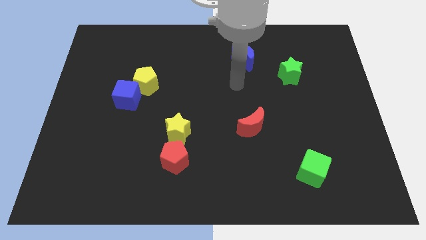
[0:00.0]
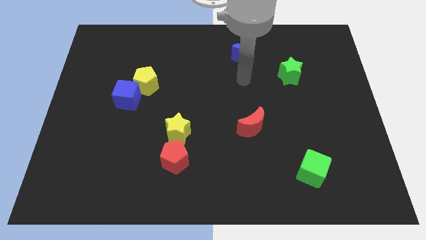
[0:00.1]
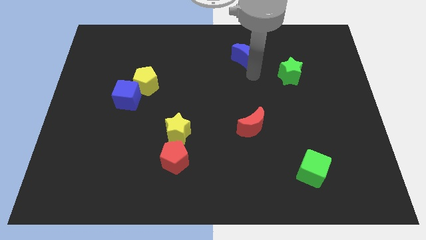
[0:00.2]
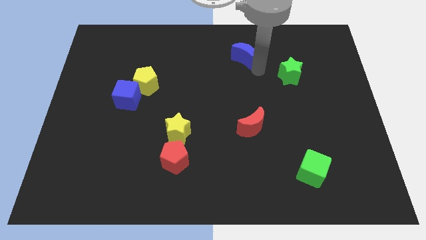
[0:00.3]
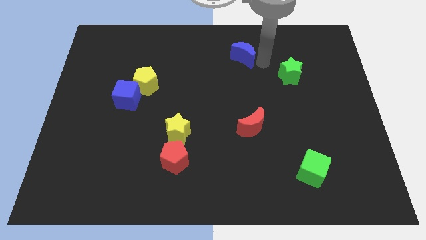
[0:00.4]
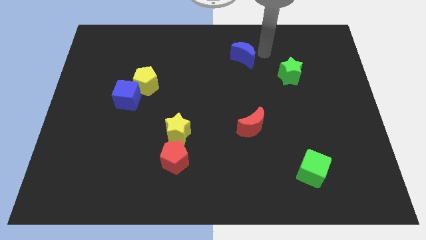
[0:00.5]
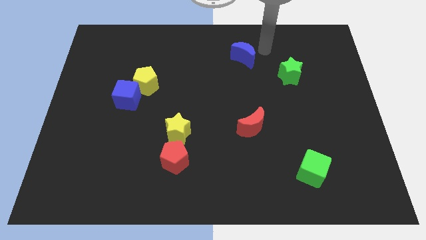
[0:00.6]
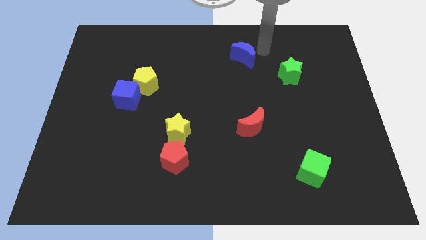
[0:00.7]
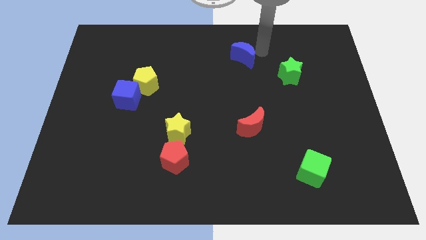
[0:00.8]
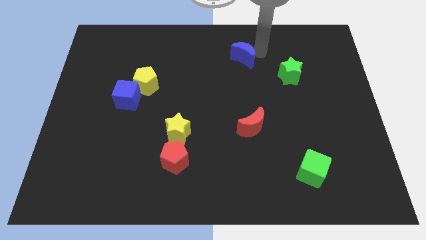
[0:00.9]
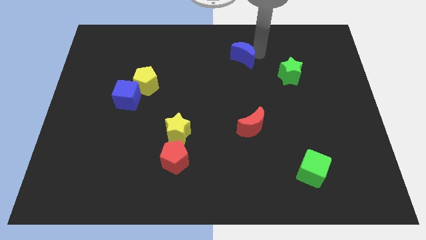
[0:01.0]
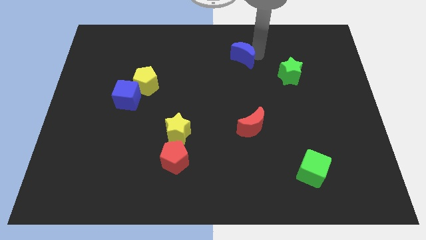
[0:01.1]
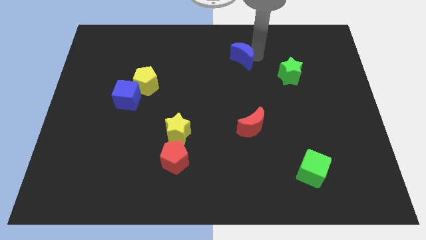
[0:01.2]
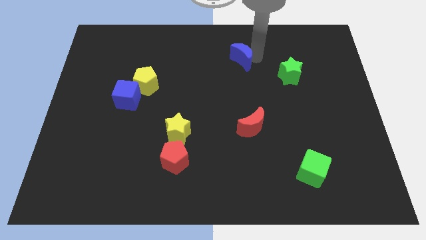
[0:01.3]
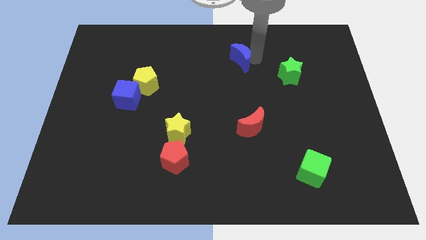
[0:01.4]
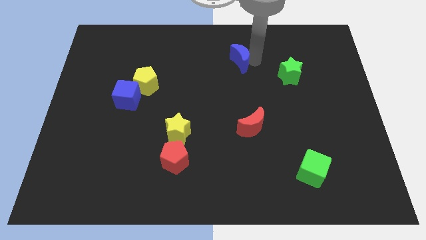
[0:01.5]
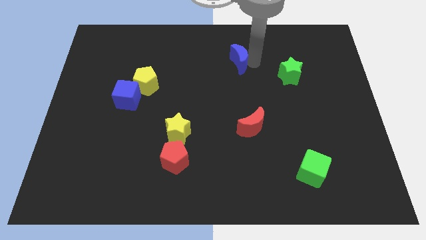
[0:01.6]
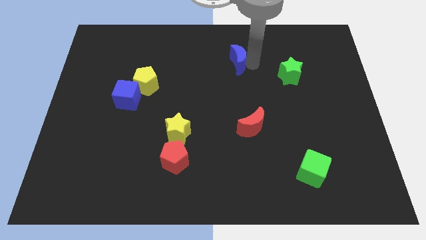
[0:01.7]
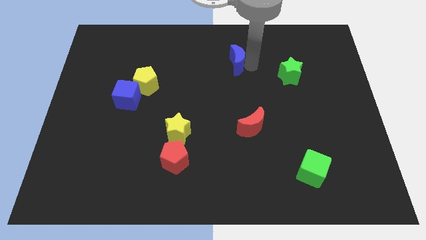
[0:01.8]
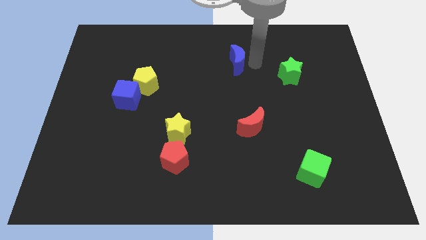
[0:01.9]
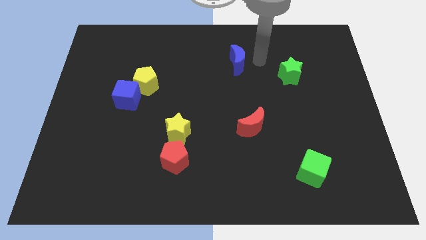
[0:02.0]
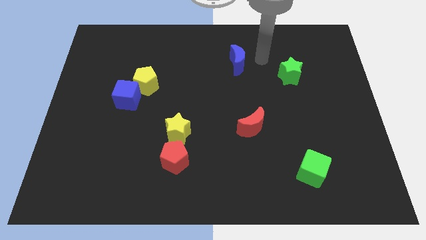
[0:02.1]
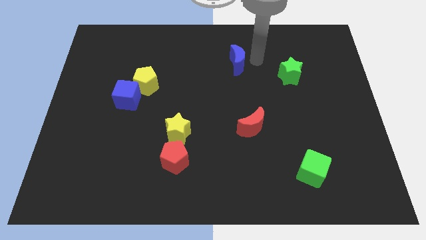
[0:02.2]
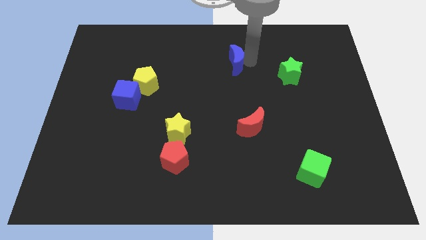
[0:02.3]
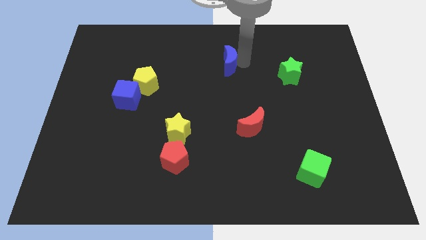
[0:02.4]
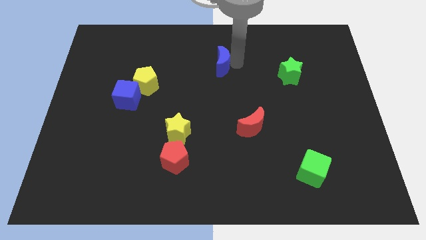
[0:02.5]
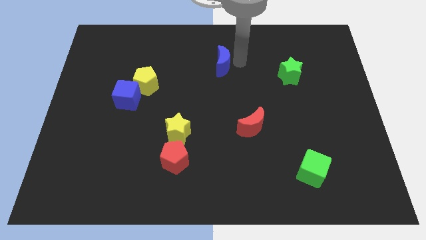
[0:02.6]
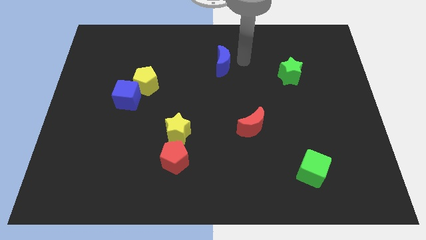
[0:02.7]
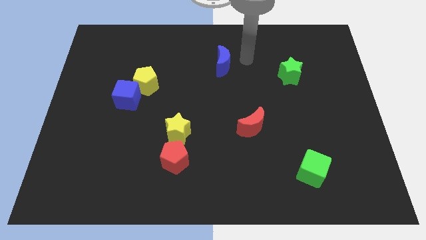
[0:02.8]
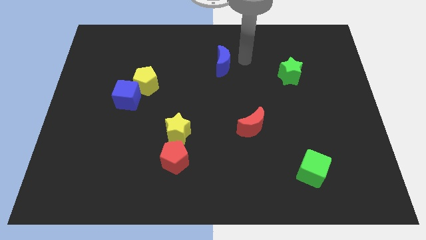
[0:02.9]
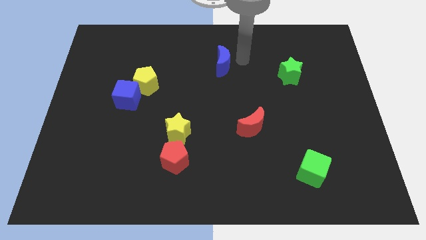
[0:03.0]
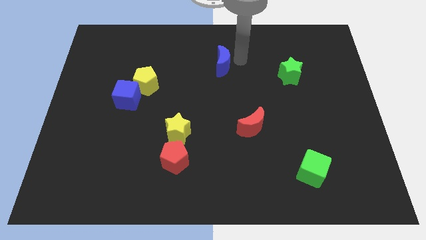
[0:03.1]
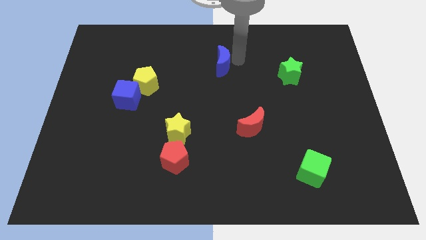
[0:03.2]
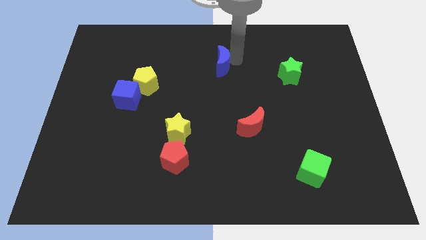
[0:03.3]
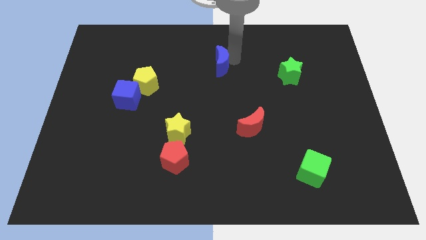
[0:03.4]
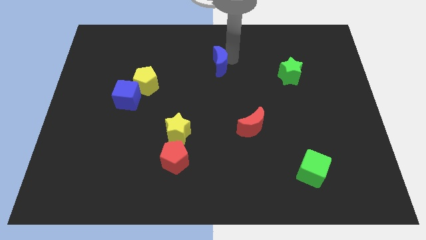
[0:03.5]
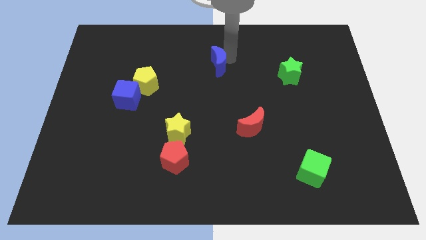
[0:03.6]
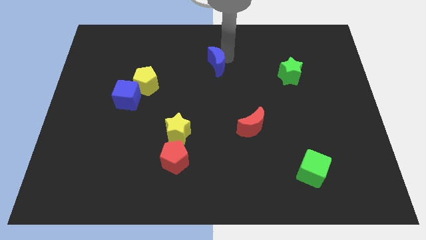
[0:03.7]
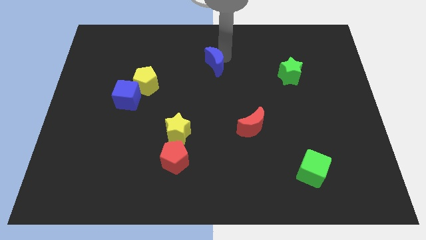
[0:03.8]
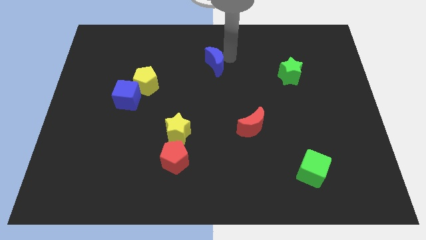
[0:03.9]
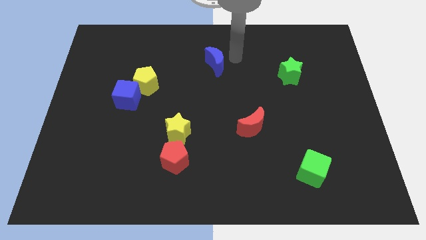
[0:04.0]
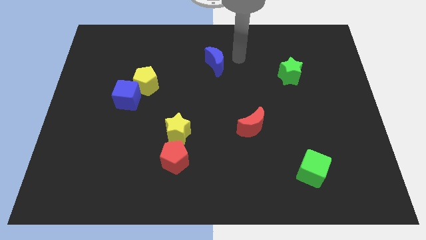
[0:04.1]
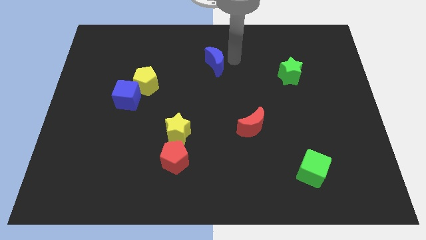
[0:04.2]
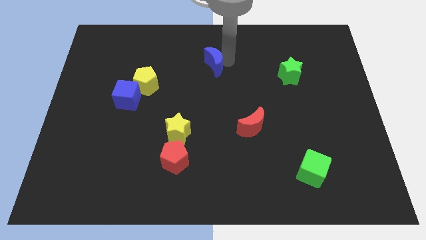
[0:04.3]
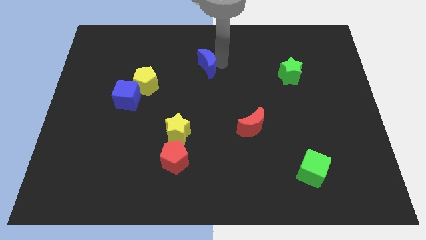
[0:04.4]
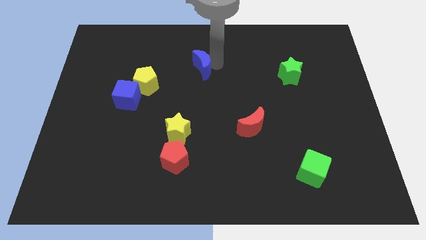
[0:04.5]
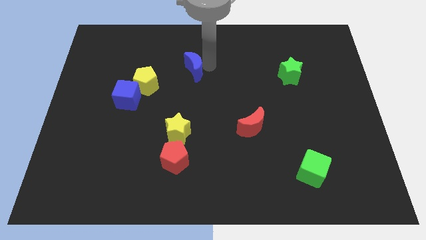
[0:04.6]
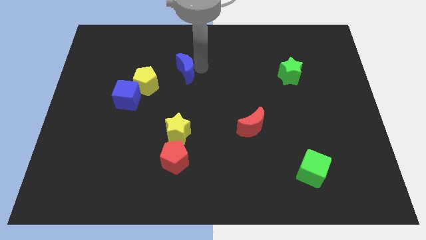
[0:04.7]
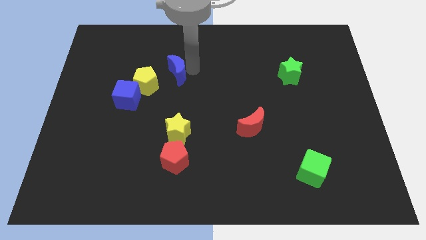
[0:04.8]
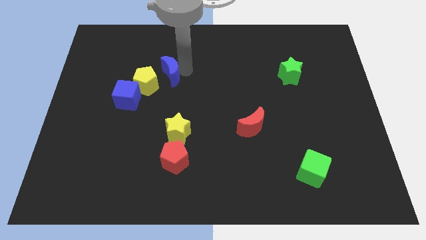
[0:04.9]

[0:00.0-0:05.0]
slide the blue moon to the top right of the blue cube

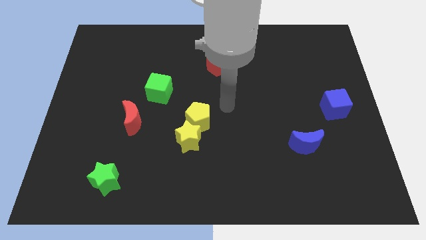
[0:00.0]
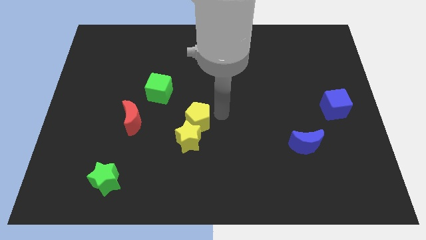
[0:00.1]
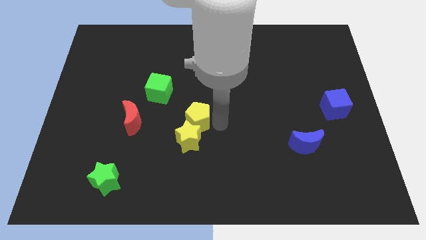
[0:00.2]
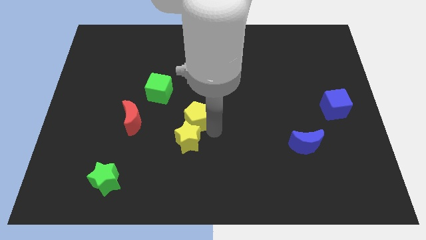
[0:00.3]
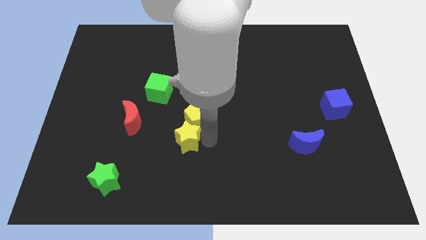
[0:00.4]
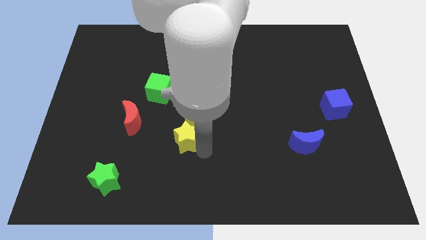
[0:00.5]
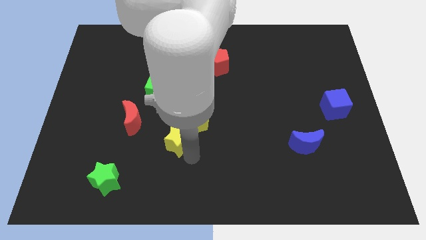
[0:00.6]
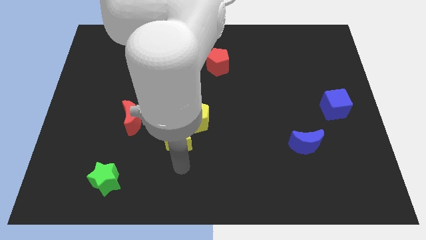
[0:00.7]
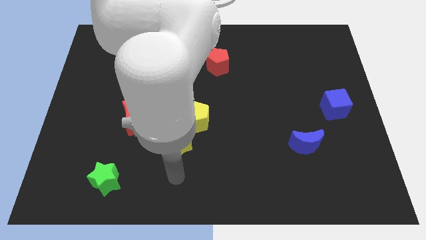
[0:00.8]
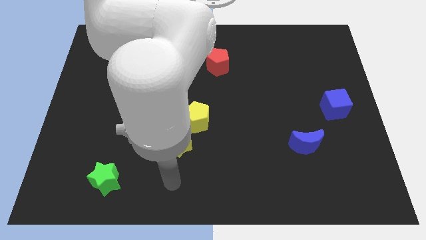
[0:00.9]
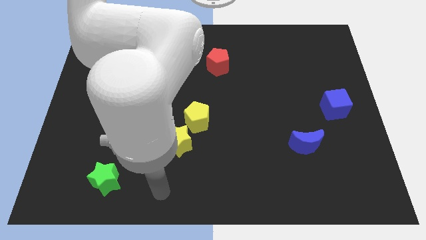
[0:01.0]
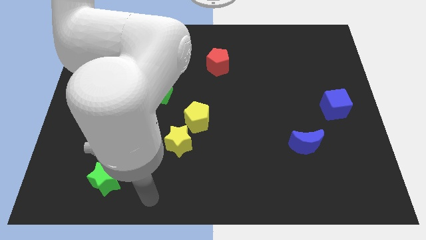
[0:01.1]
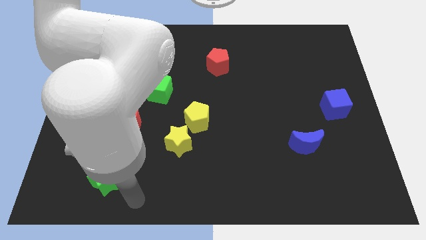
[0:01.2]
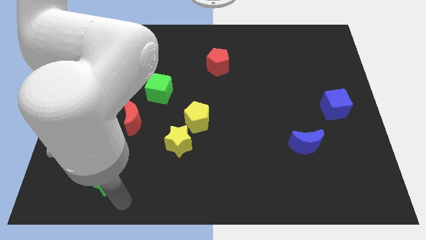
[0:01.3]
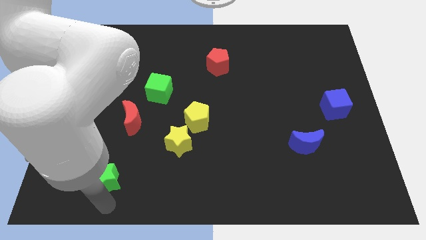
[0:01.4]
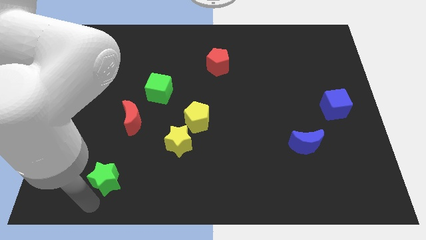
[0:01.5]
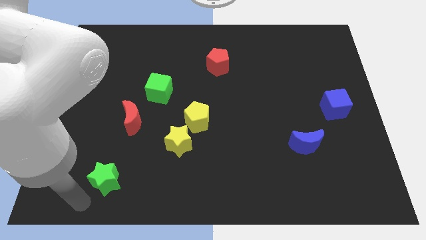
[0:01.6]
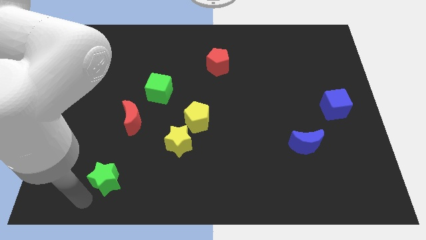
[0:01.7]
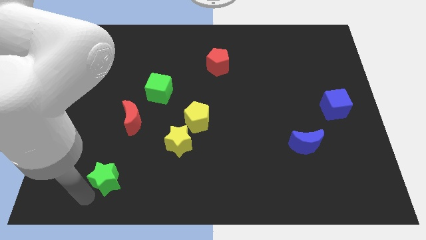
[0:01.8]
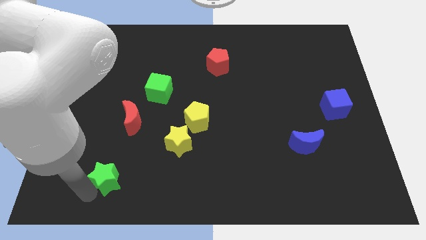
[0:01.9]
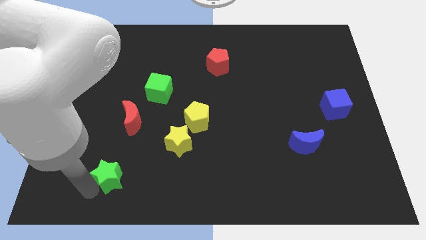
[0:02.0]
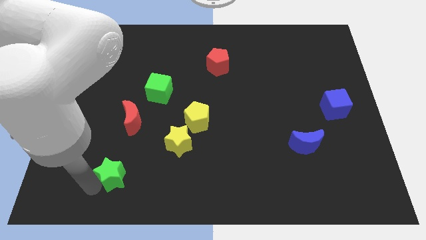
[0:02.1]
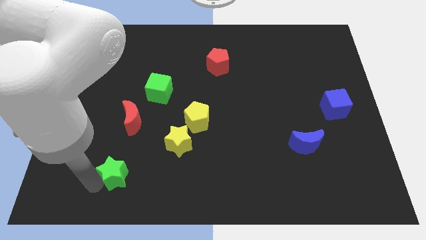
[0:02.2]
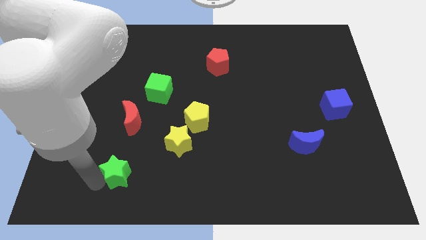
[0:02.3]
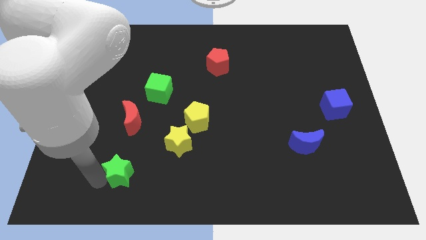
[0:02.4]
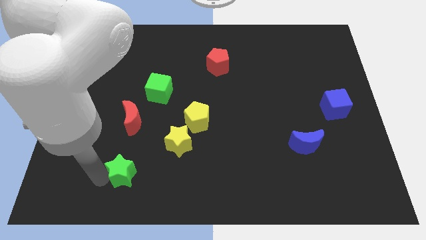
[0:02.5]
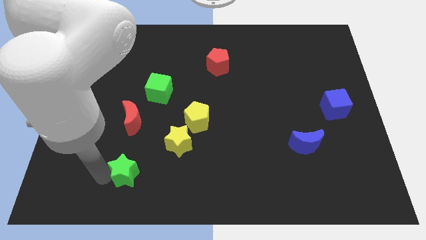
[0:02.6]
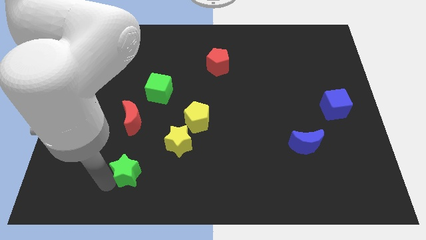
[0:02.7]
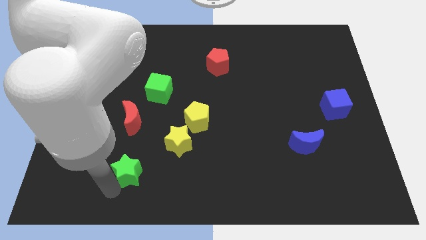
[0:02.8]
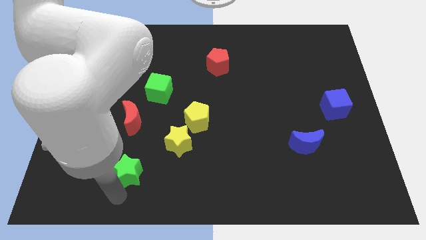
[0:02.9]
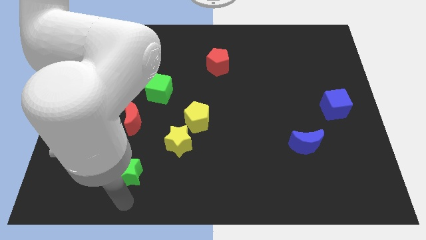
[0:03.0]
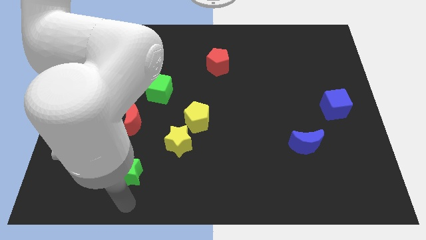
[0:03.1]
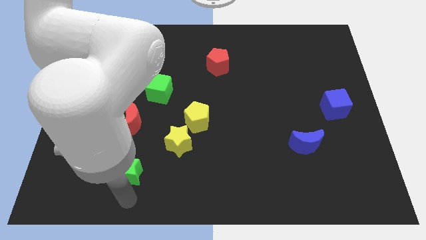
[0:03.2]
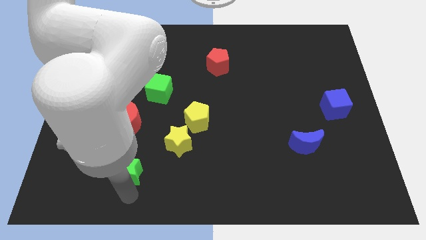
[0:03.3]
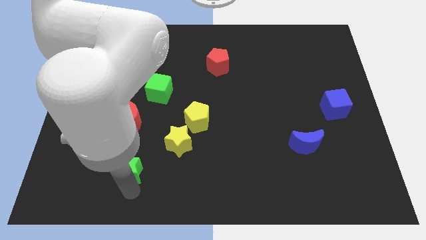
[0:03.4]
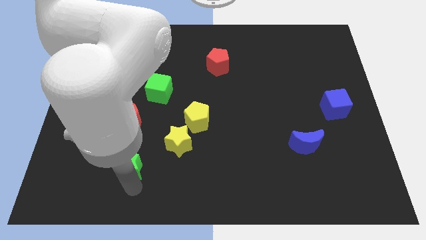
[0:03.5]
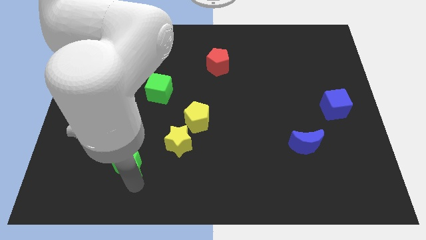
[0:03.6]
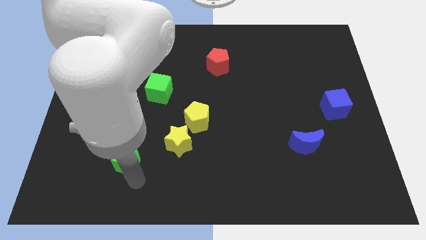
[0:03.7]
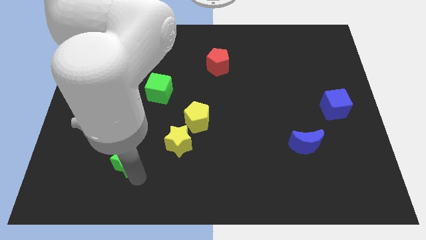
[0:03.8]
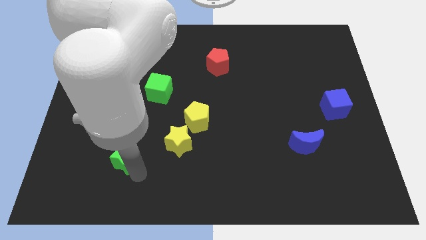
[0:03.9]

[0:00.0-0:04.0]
move the green star left of the yellow star
